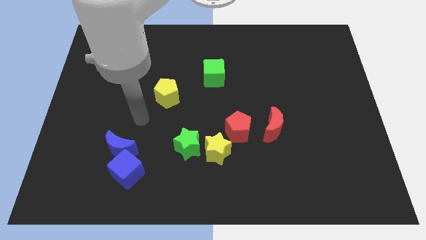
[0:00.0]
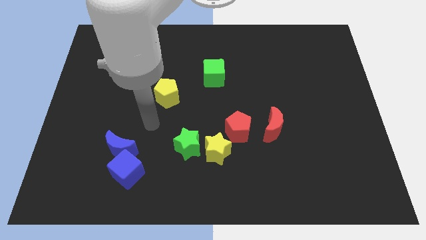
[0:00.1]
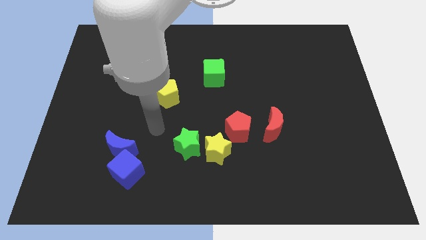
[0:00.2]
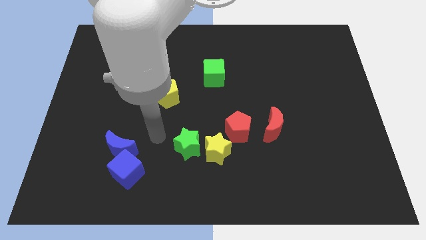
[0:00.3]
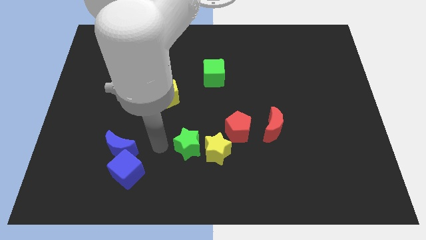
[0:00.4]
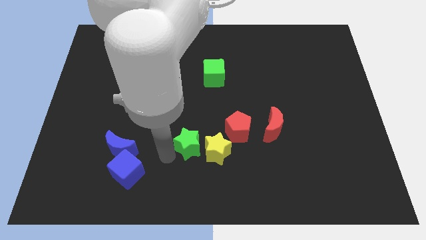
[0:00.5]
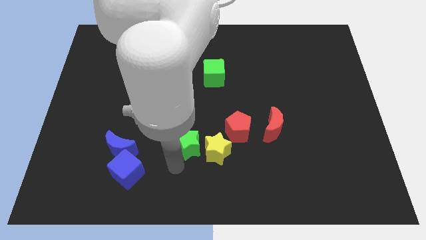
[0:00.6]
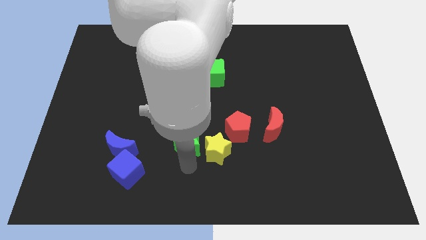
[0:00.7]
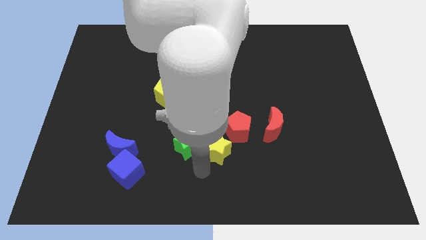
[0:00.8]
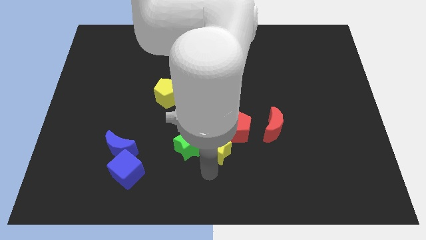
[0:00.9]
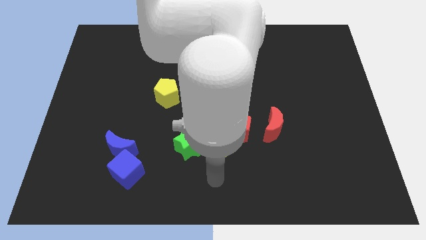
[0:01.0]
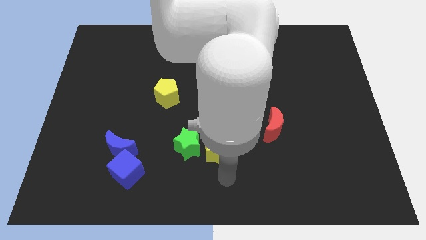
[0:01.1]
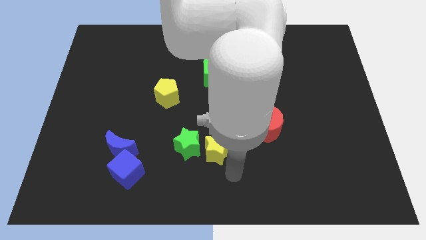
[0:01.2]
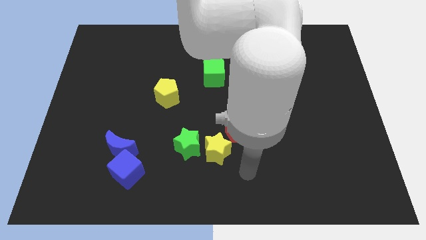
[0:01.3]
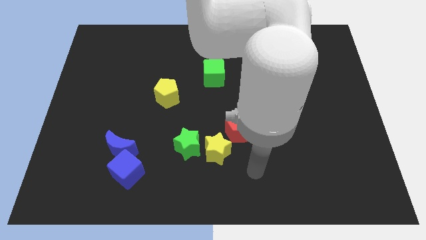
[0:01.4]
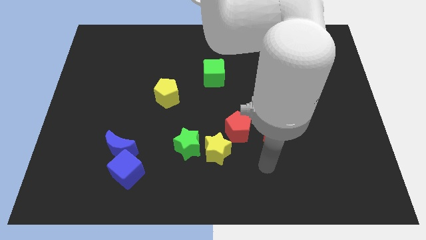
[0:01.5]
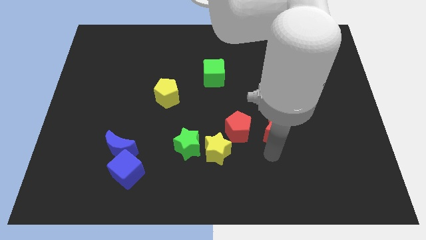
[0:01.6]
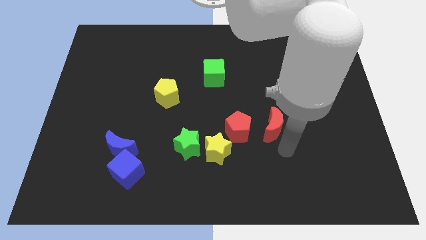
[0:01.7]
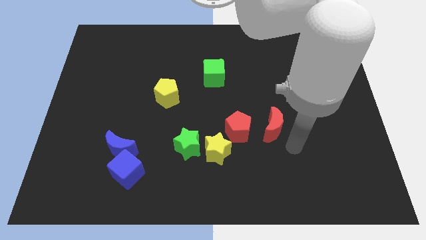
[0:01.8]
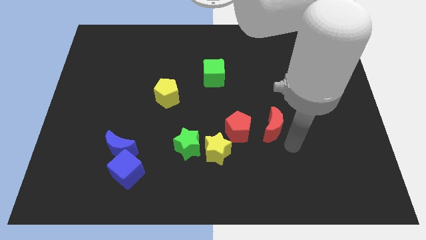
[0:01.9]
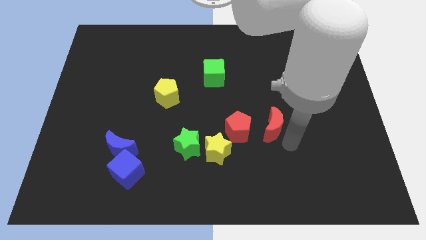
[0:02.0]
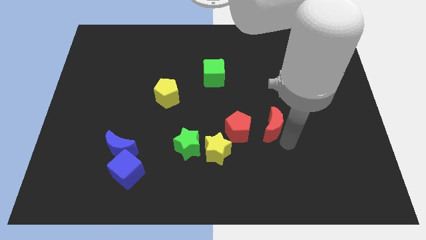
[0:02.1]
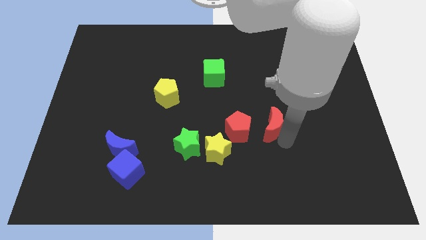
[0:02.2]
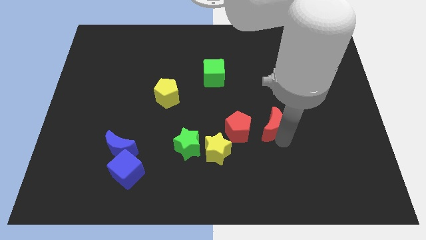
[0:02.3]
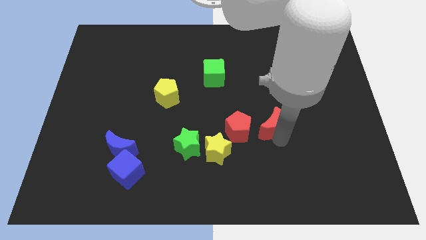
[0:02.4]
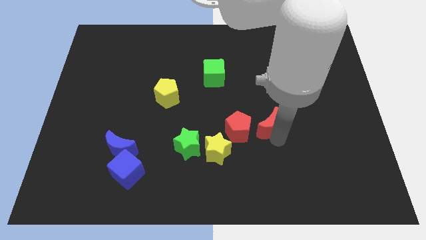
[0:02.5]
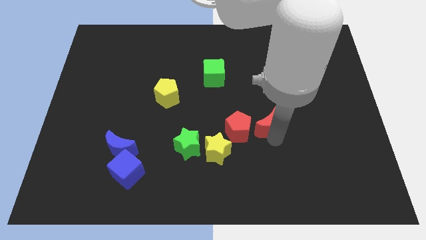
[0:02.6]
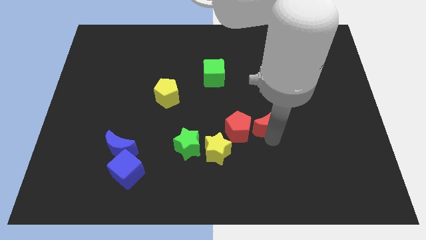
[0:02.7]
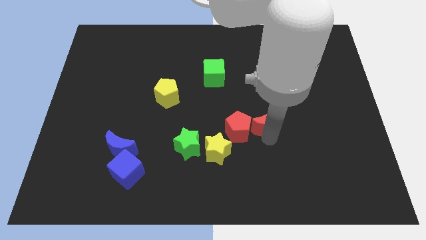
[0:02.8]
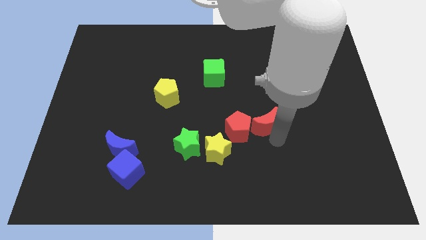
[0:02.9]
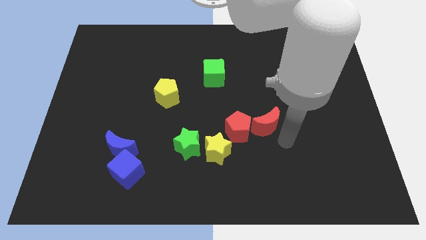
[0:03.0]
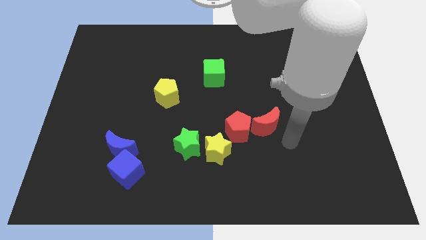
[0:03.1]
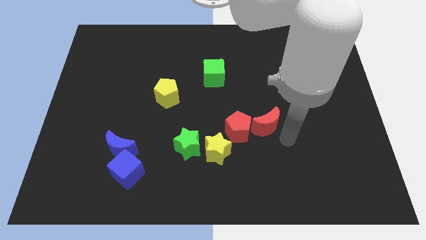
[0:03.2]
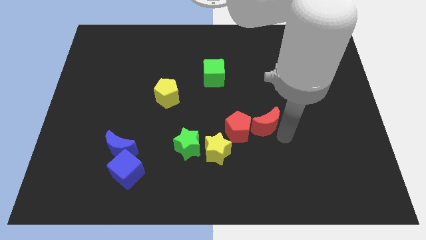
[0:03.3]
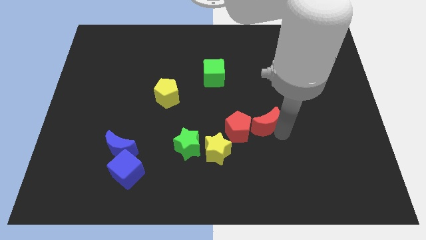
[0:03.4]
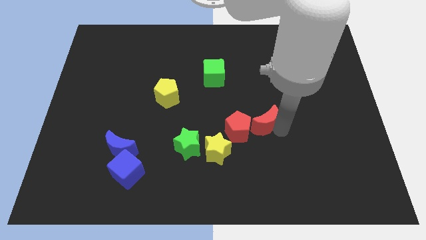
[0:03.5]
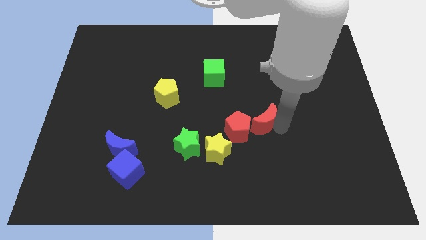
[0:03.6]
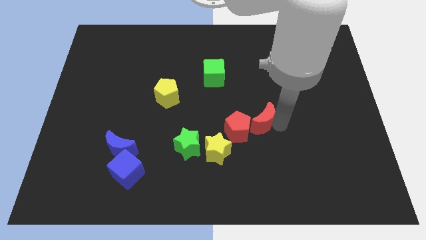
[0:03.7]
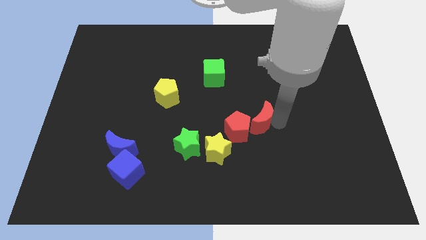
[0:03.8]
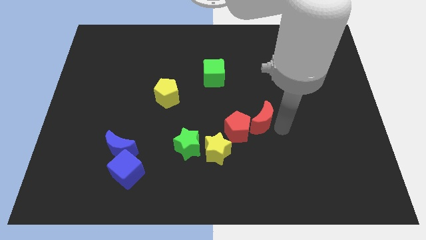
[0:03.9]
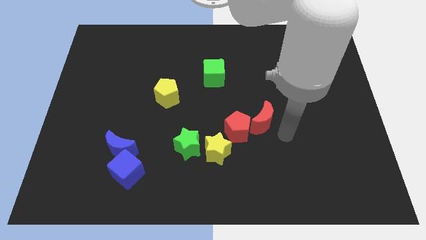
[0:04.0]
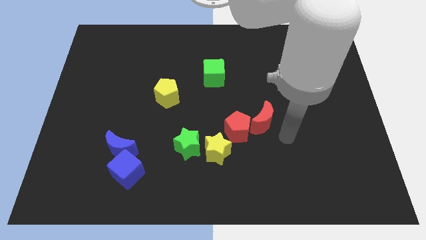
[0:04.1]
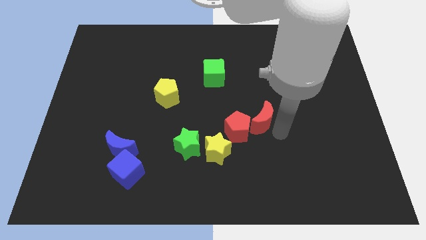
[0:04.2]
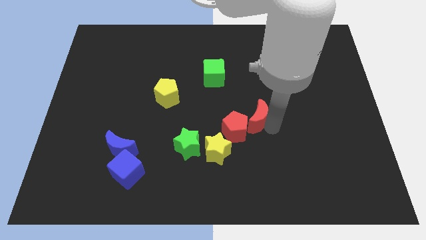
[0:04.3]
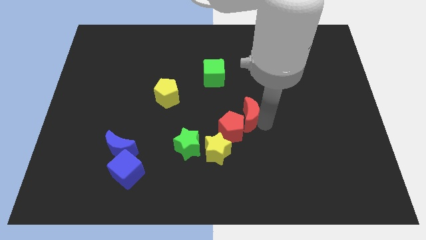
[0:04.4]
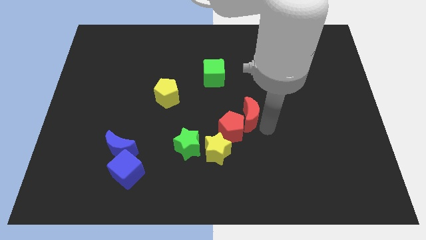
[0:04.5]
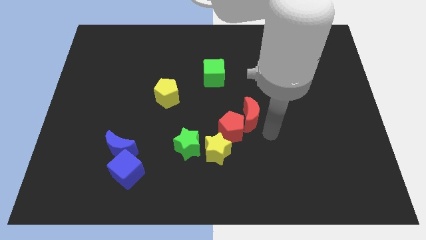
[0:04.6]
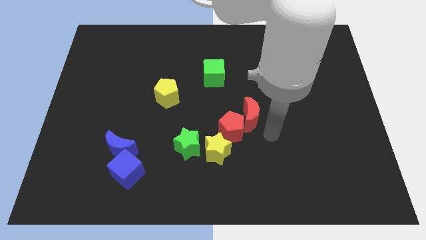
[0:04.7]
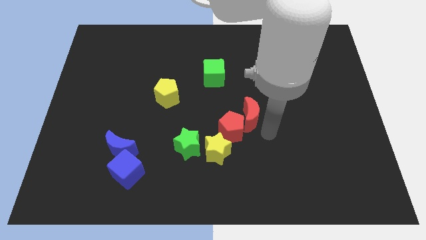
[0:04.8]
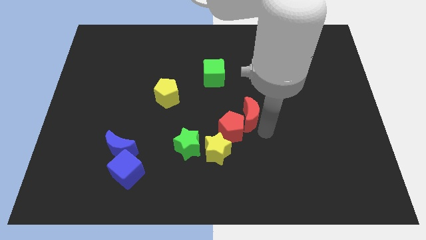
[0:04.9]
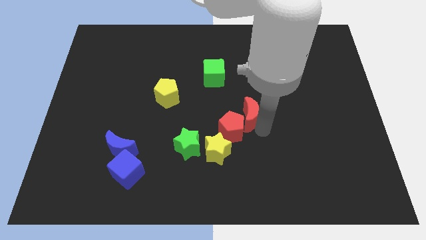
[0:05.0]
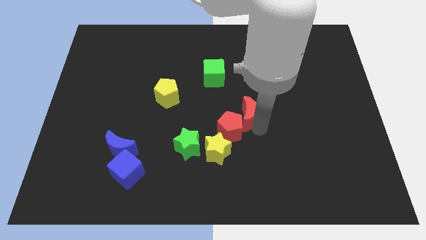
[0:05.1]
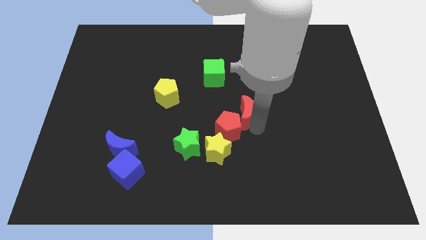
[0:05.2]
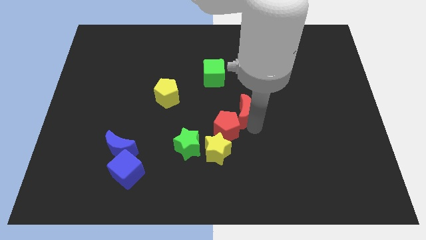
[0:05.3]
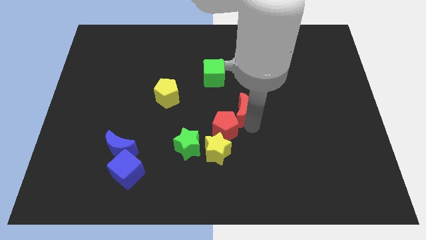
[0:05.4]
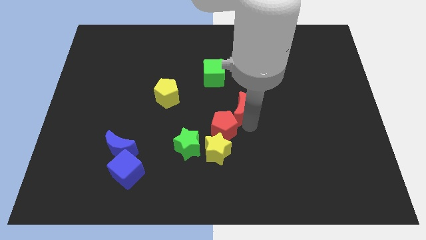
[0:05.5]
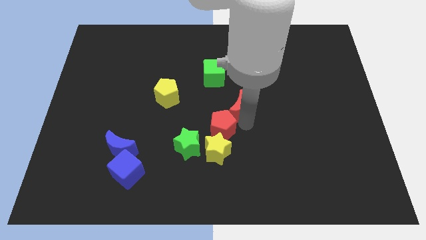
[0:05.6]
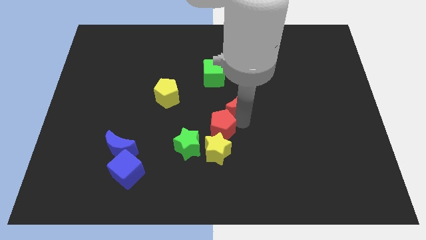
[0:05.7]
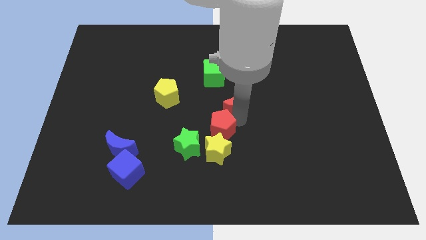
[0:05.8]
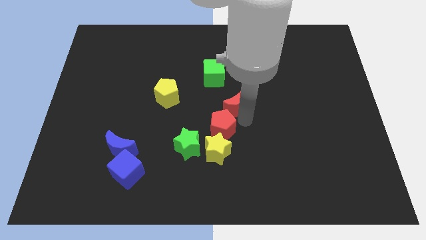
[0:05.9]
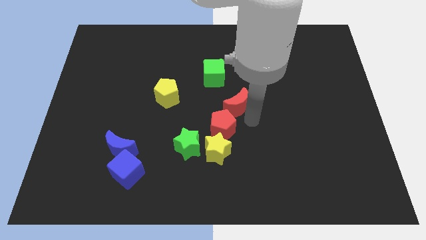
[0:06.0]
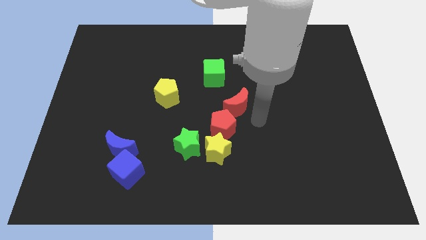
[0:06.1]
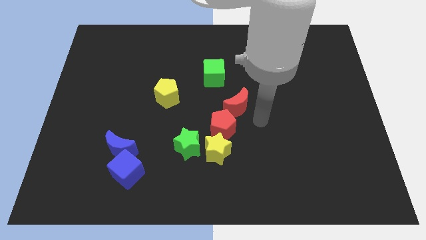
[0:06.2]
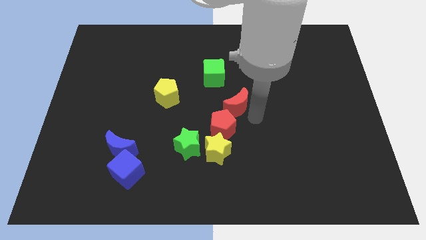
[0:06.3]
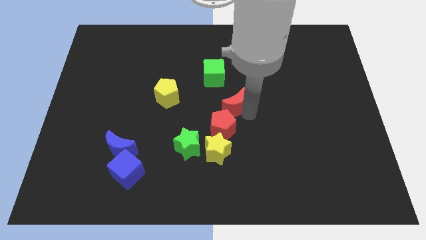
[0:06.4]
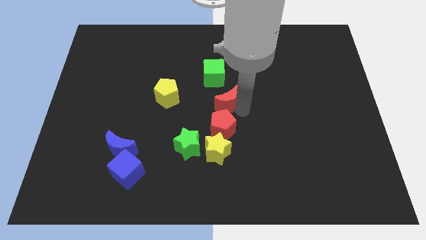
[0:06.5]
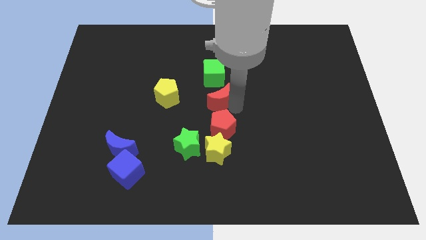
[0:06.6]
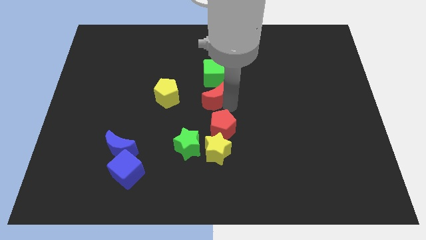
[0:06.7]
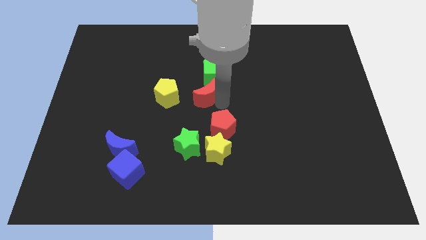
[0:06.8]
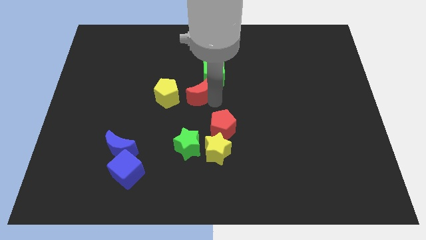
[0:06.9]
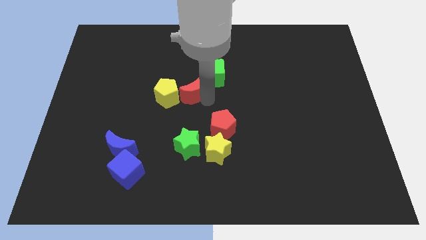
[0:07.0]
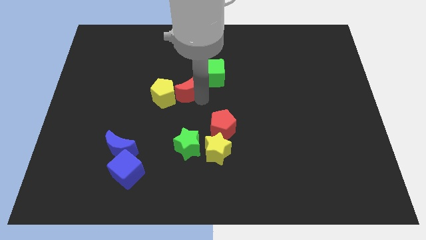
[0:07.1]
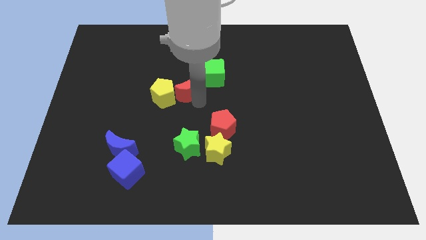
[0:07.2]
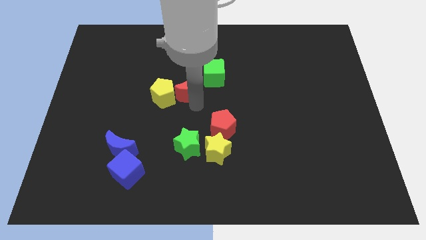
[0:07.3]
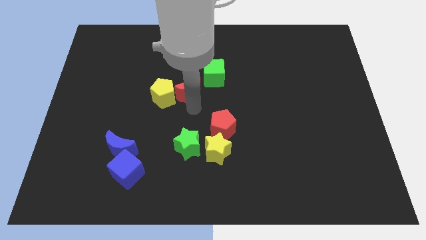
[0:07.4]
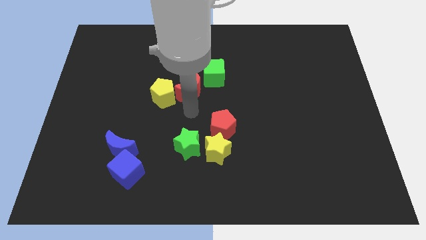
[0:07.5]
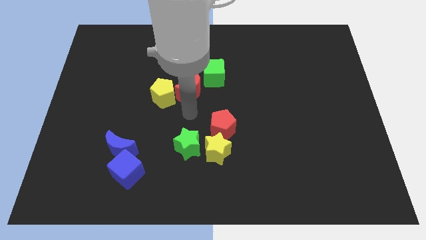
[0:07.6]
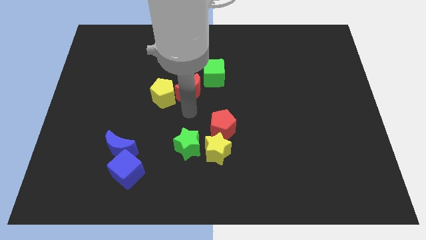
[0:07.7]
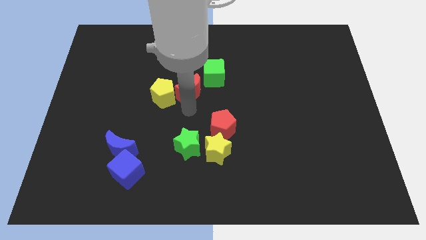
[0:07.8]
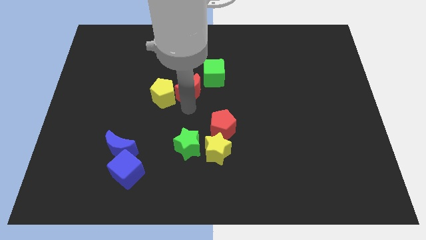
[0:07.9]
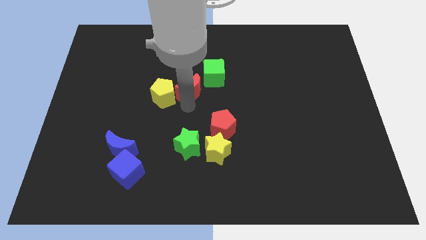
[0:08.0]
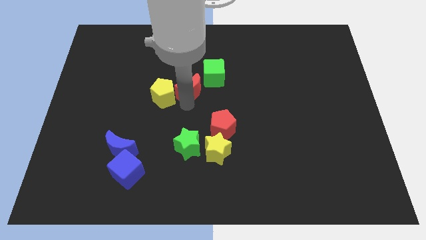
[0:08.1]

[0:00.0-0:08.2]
move the red moon upwards and then left
